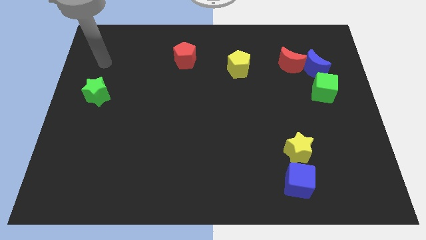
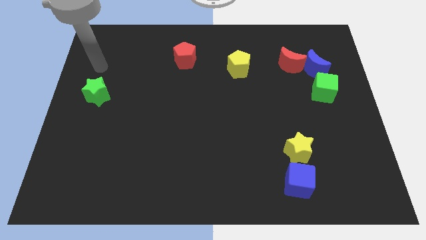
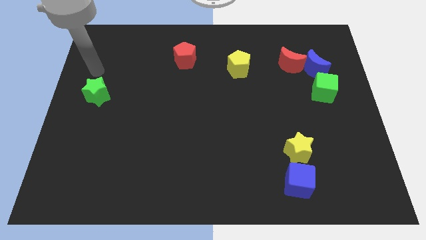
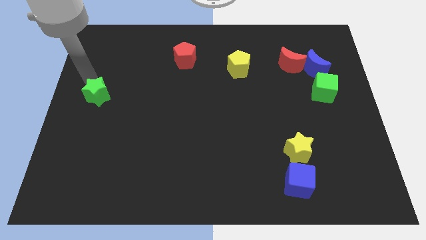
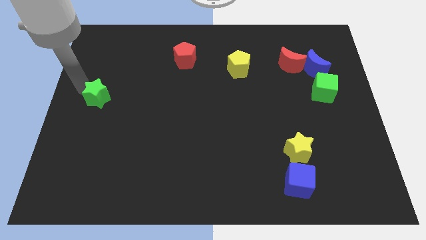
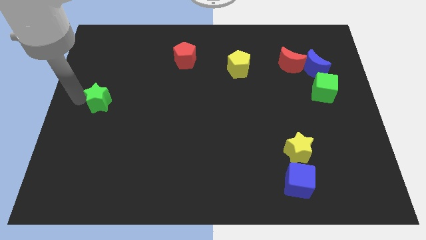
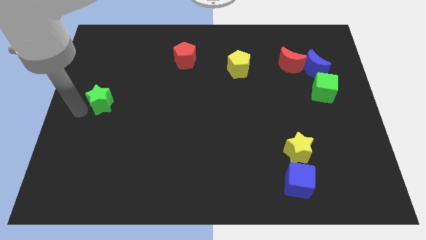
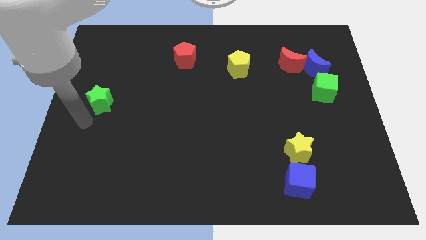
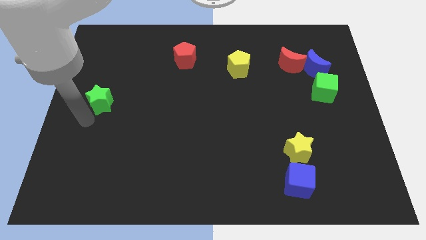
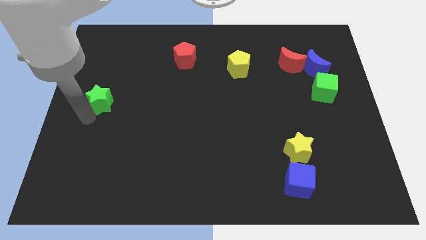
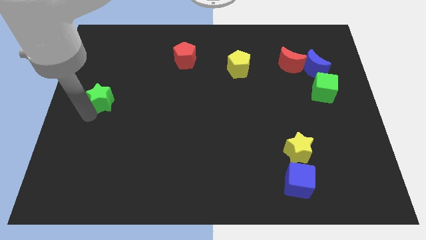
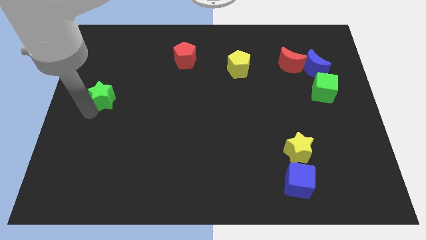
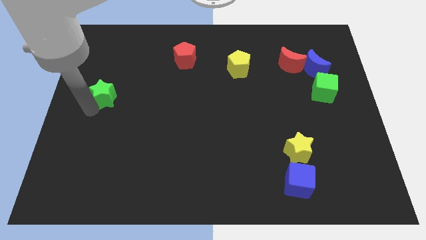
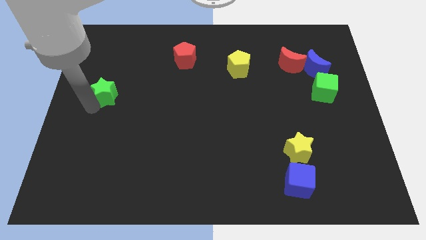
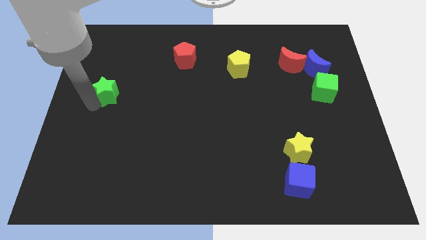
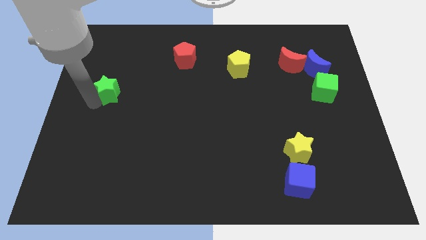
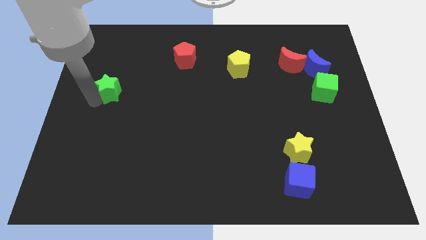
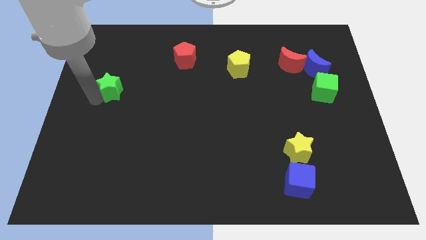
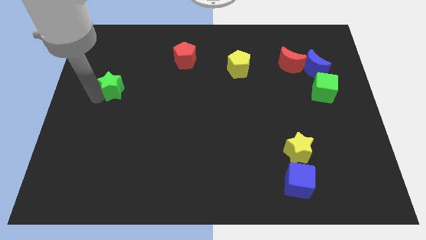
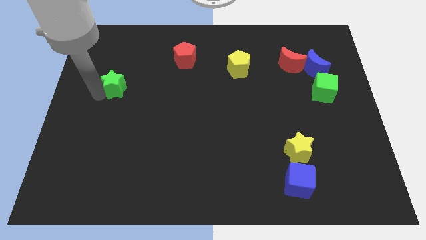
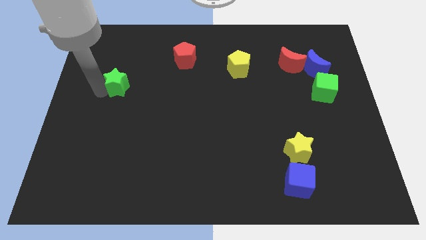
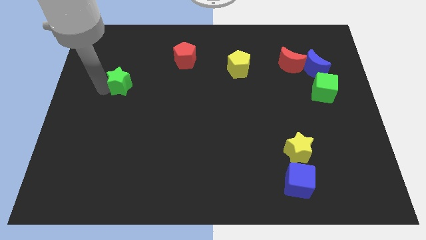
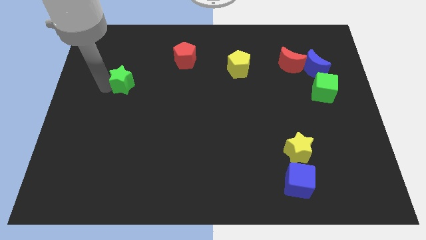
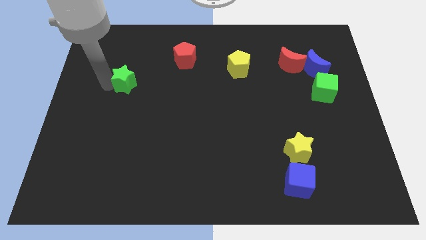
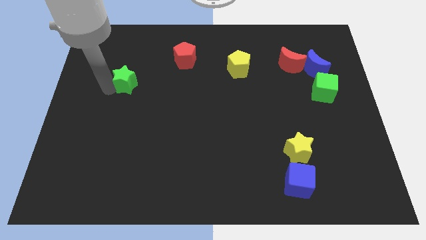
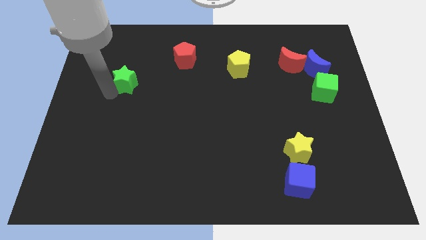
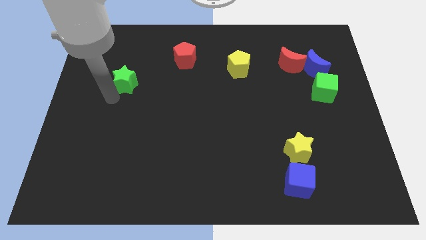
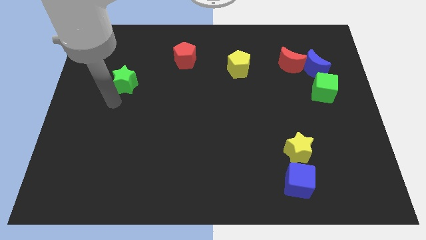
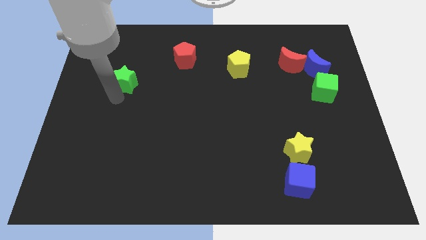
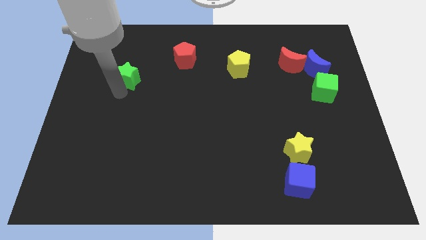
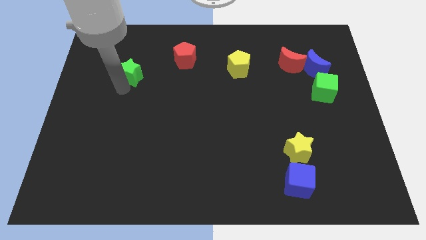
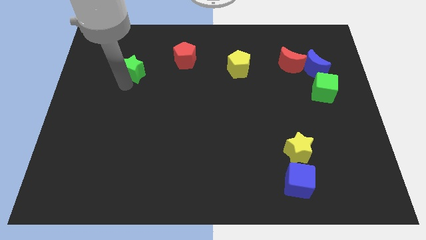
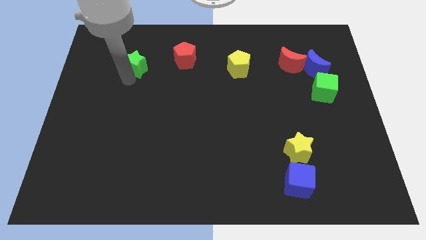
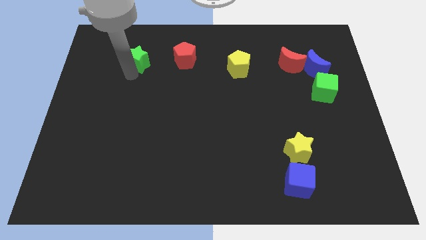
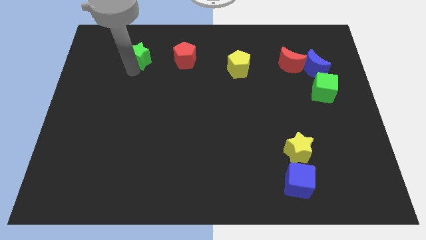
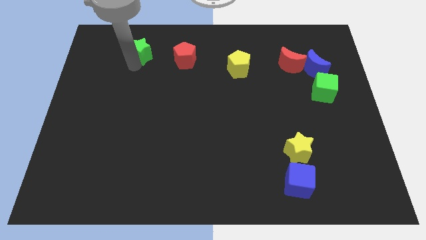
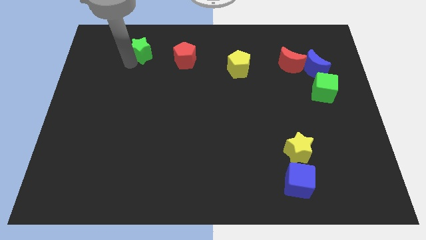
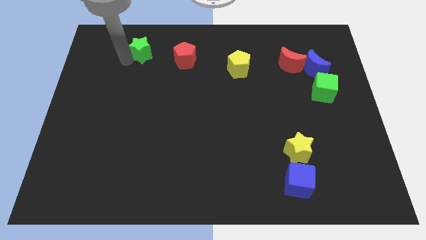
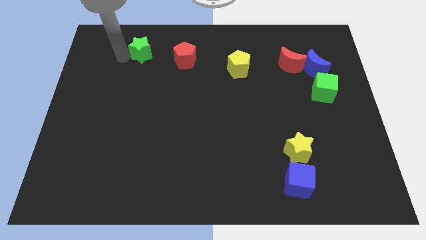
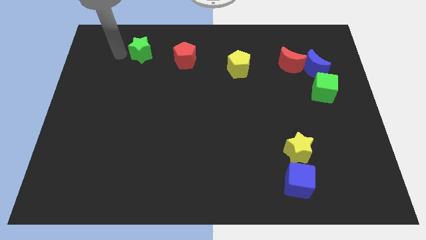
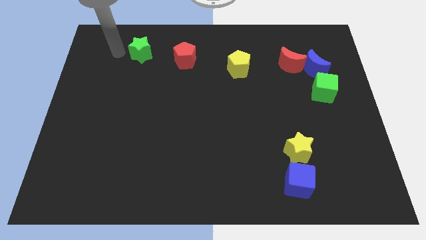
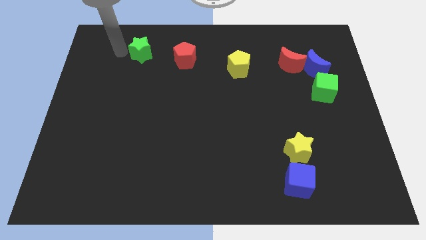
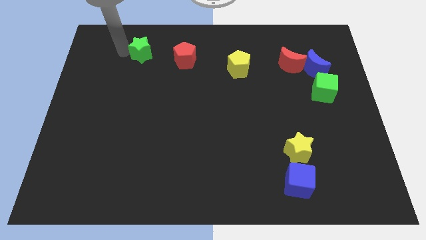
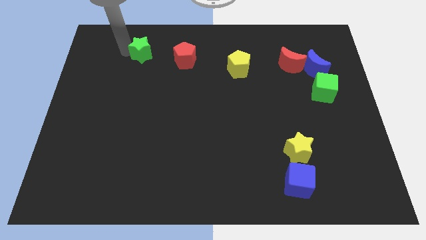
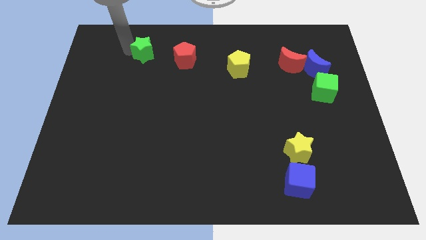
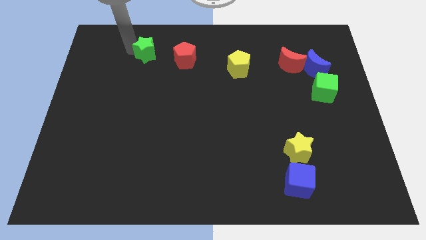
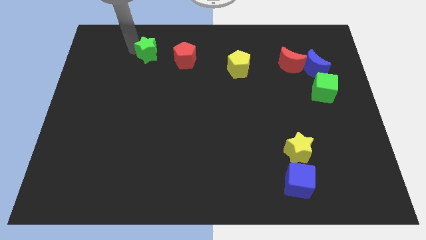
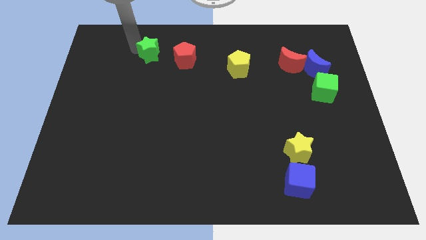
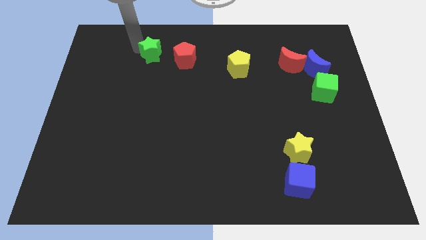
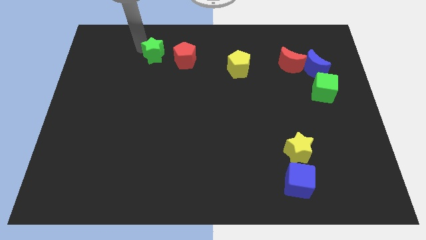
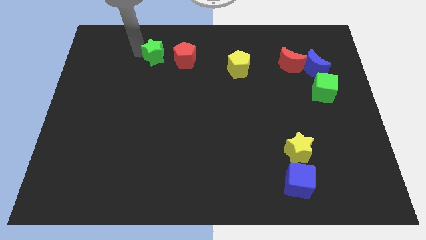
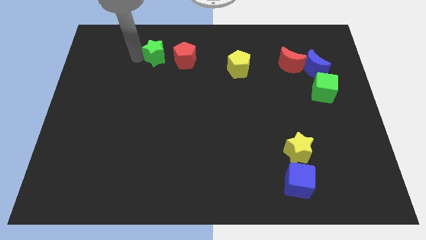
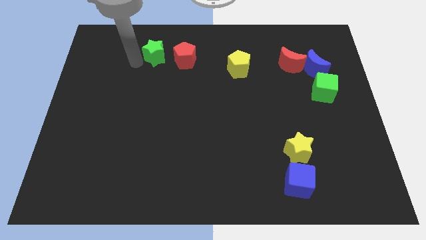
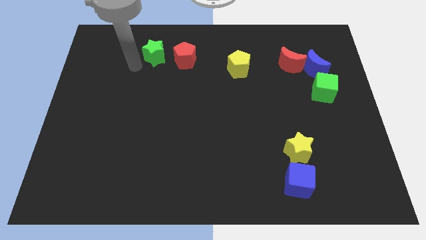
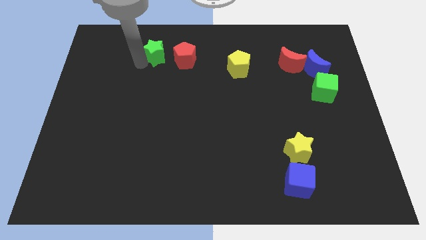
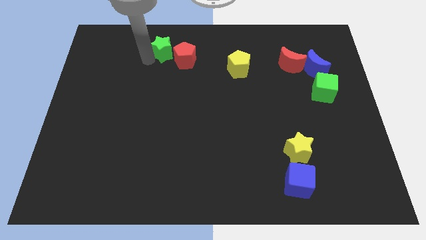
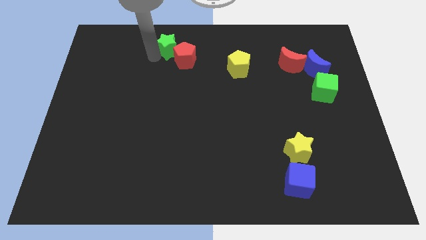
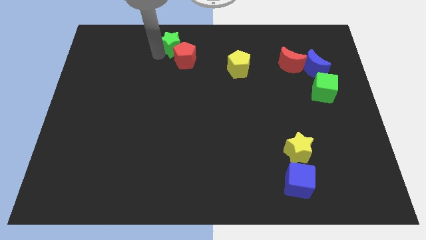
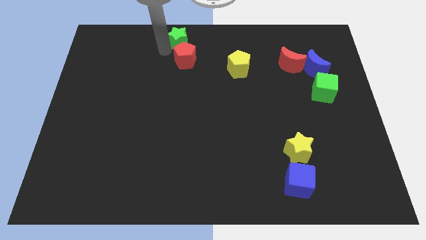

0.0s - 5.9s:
slide the green star to the top

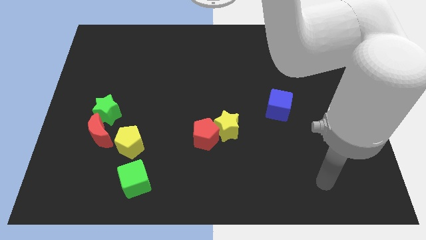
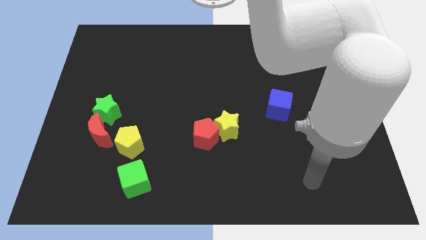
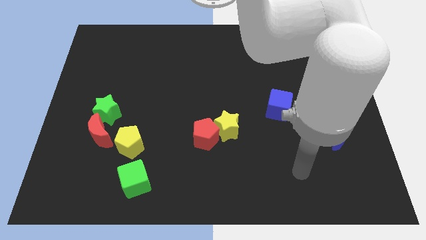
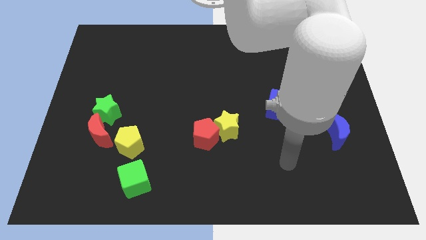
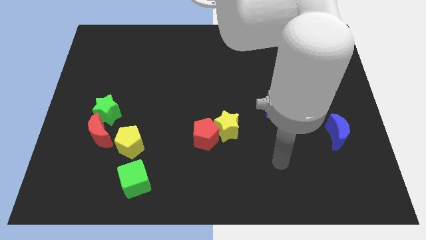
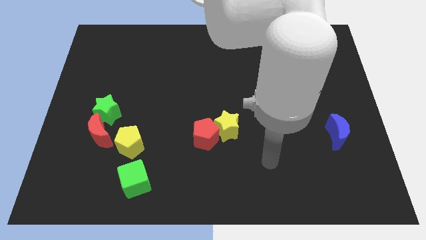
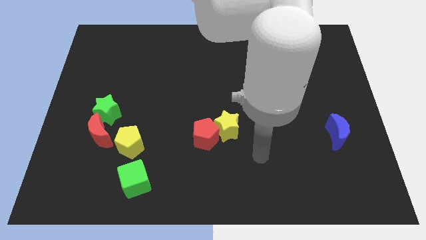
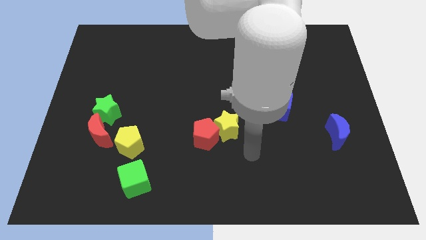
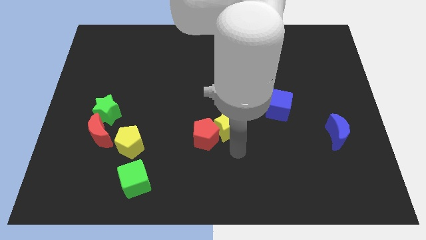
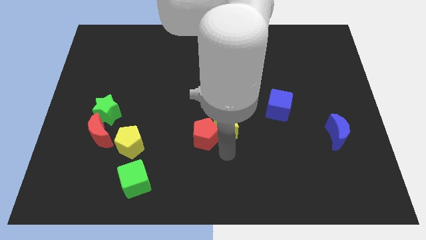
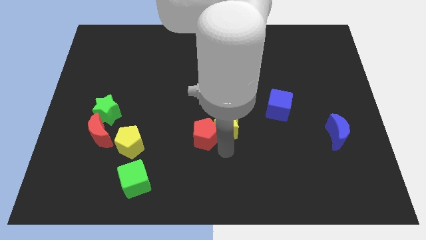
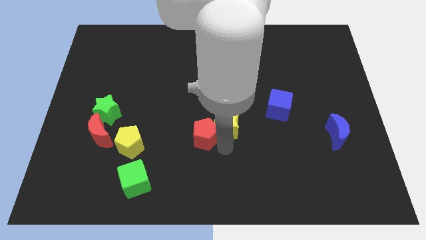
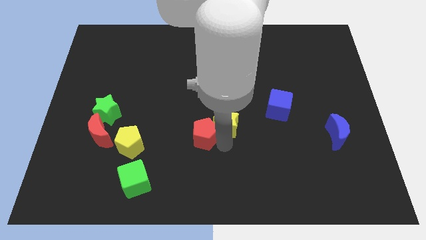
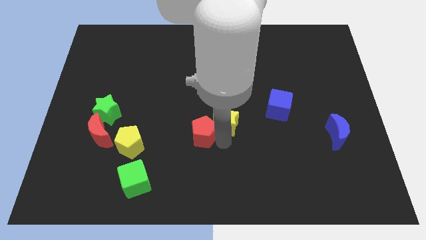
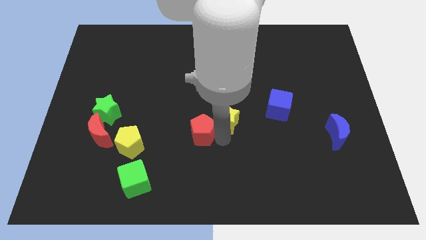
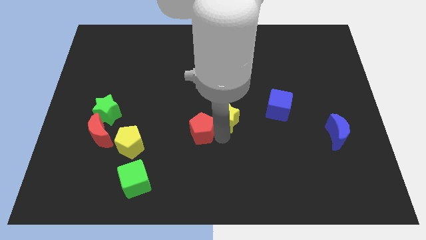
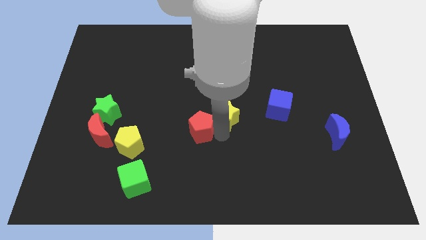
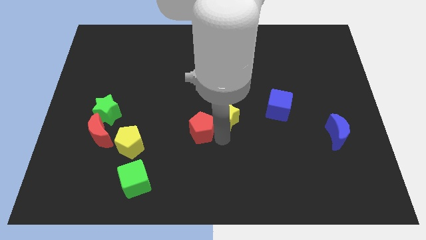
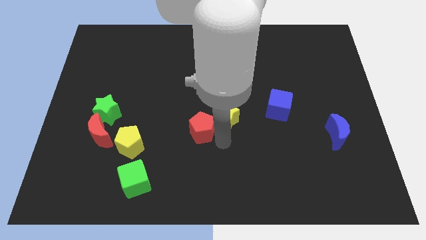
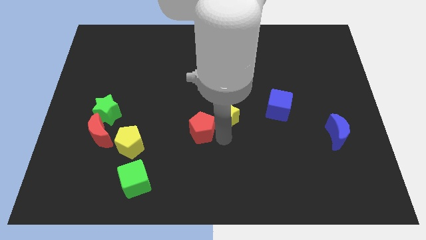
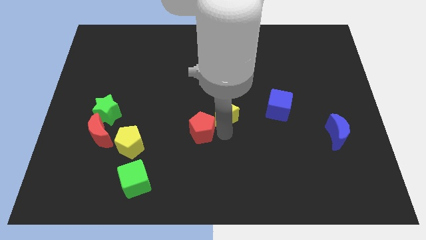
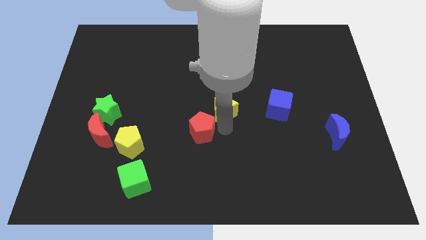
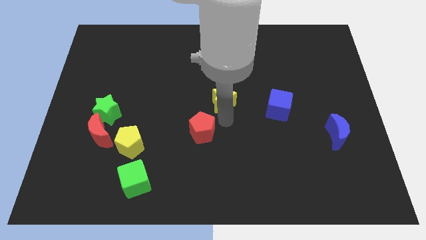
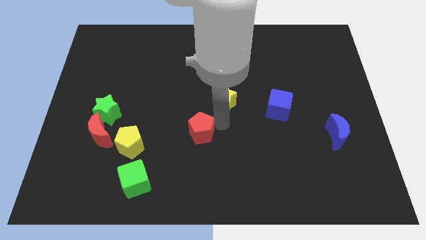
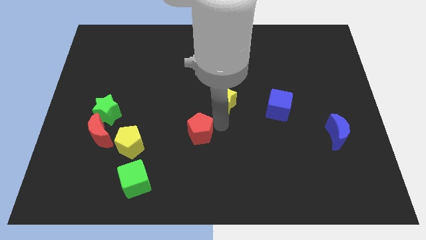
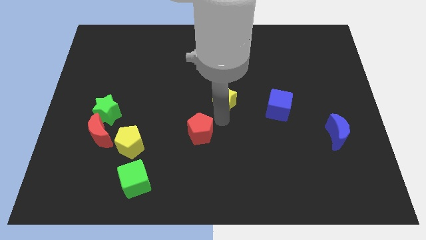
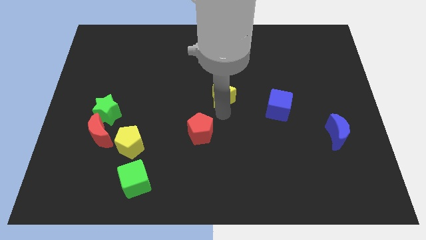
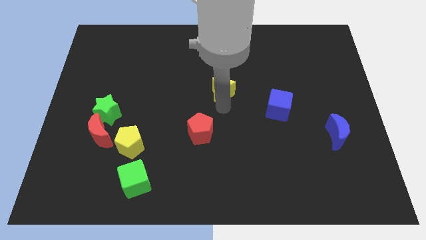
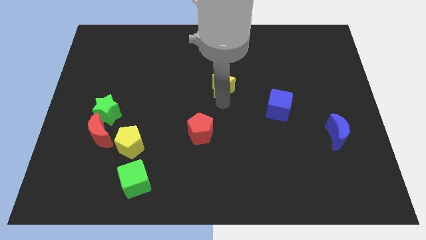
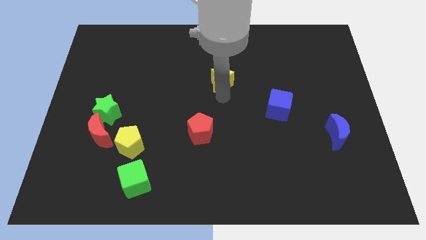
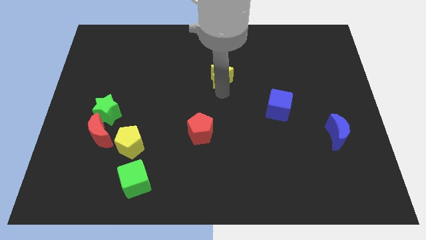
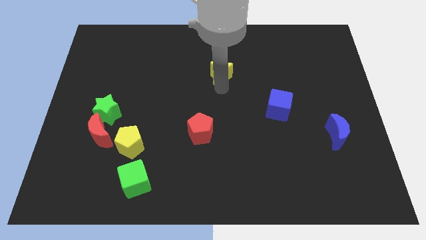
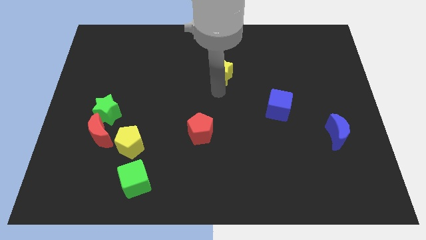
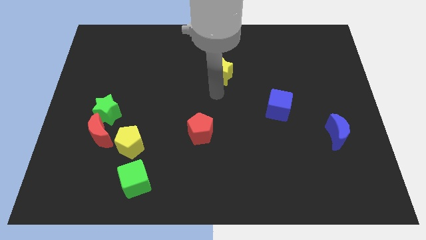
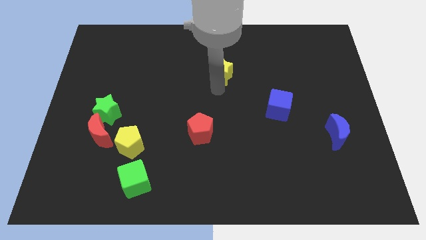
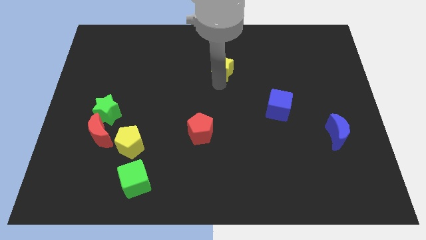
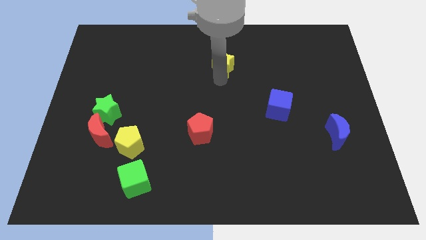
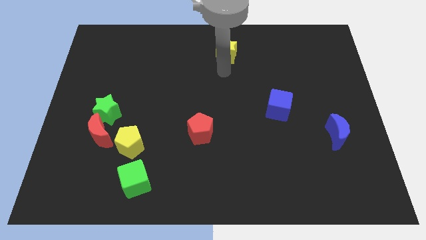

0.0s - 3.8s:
push the yellow star to the top side
